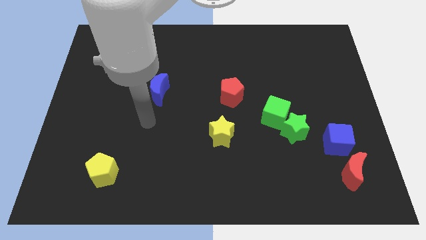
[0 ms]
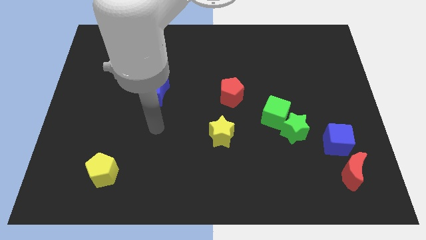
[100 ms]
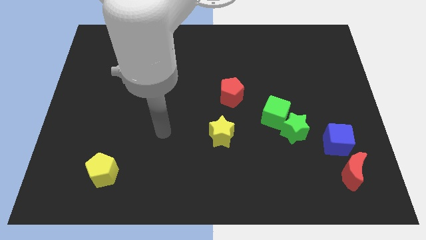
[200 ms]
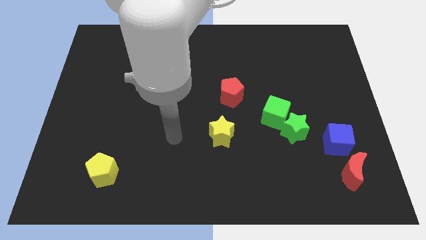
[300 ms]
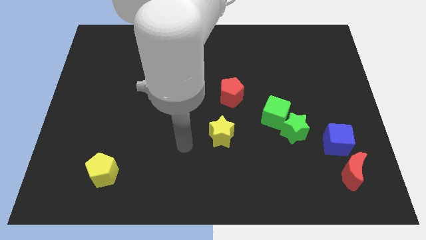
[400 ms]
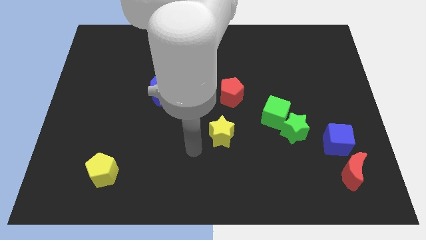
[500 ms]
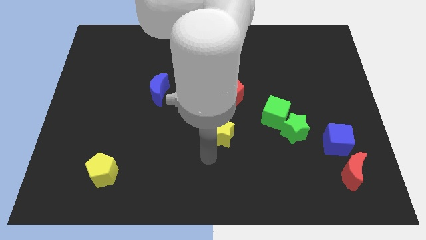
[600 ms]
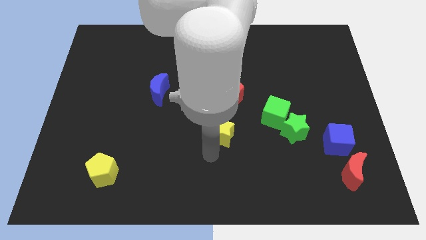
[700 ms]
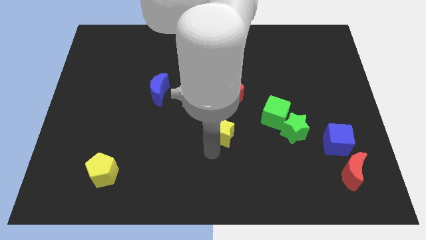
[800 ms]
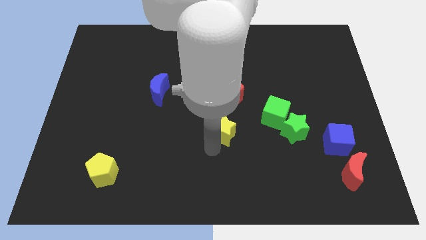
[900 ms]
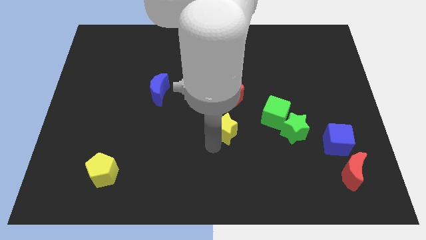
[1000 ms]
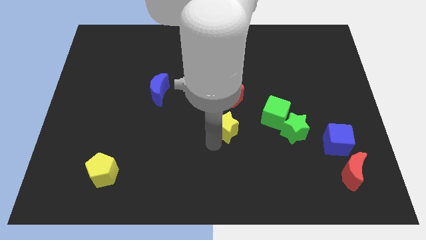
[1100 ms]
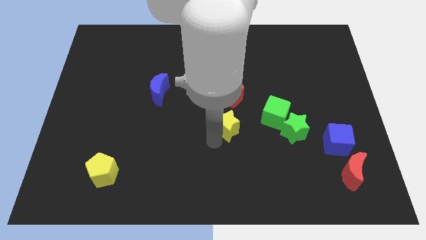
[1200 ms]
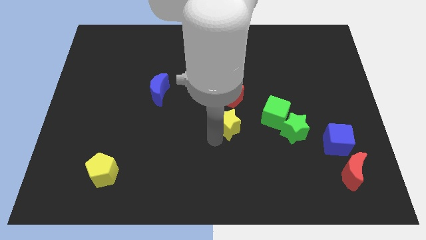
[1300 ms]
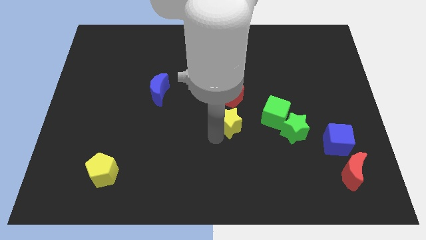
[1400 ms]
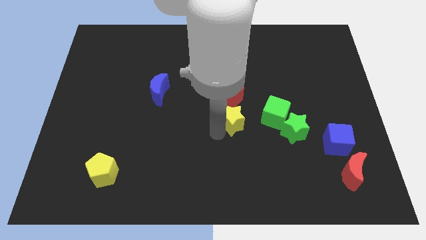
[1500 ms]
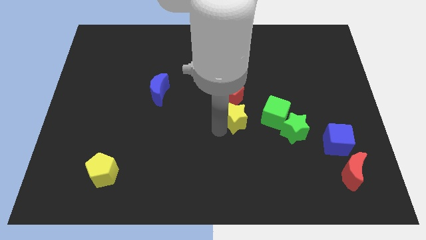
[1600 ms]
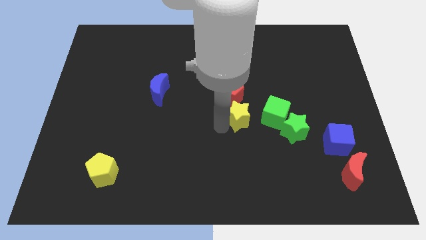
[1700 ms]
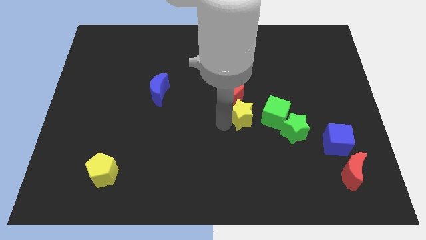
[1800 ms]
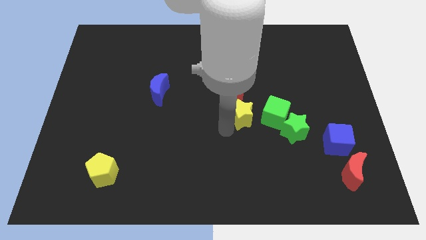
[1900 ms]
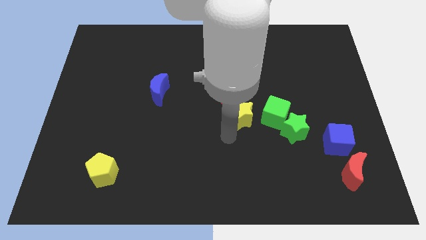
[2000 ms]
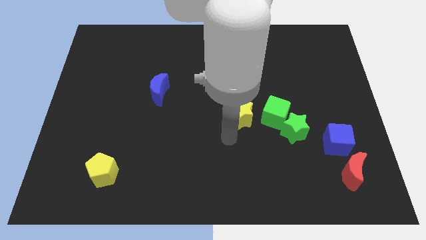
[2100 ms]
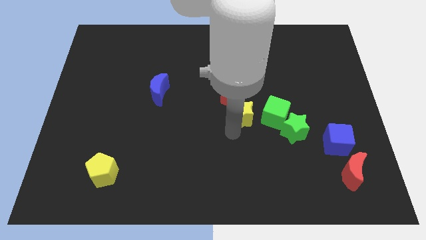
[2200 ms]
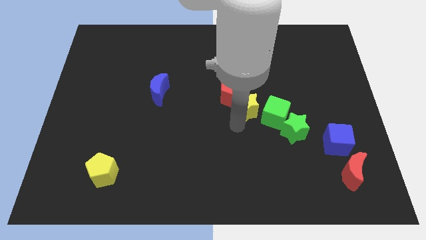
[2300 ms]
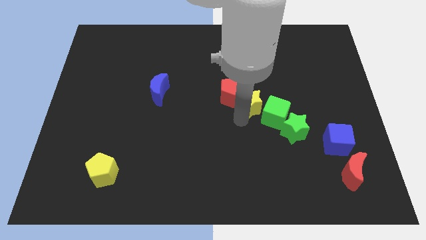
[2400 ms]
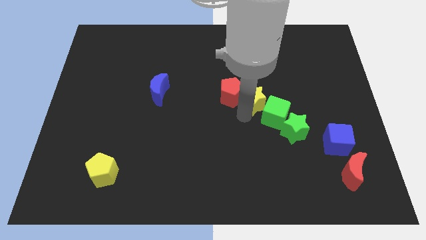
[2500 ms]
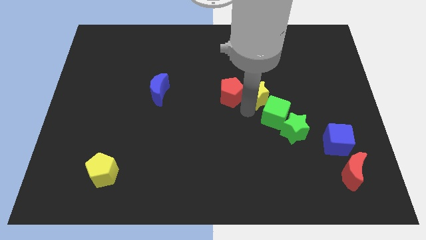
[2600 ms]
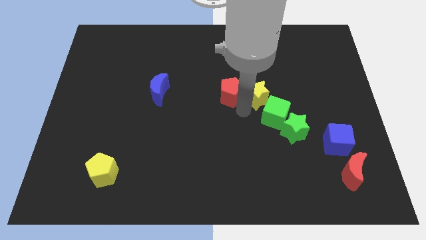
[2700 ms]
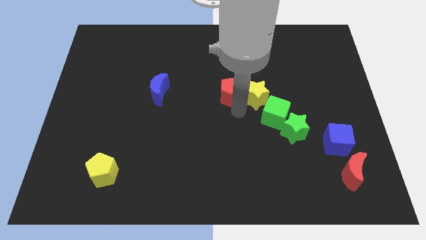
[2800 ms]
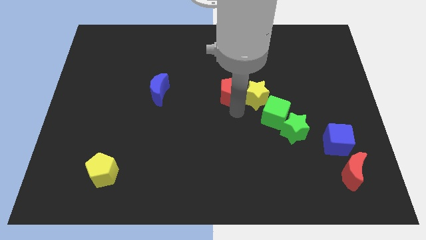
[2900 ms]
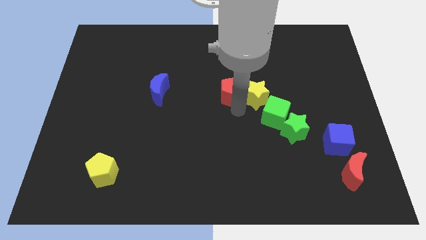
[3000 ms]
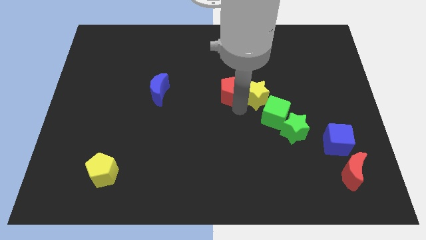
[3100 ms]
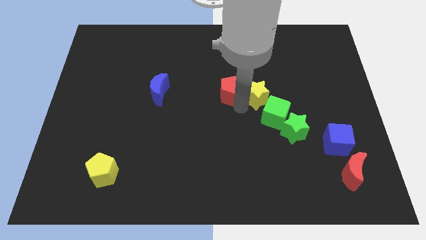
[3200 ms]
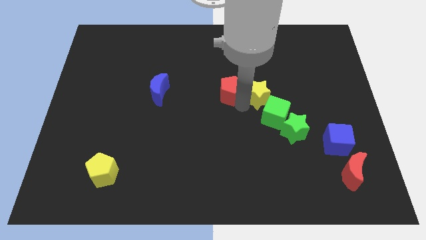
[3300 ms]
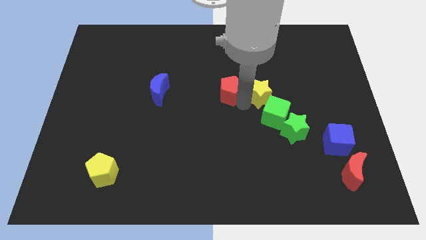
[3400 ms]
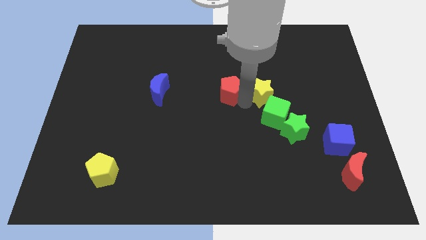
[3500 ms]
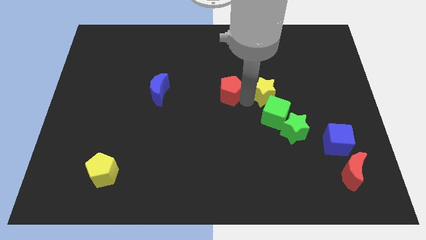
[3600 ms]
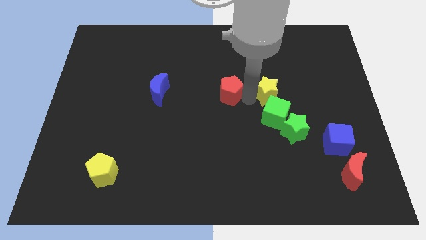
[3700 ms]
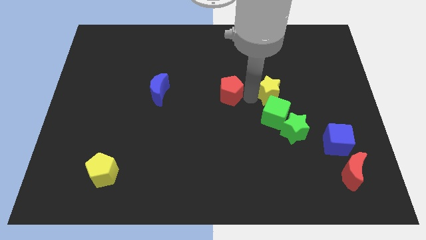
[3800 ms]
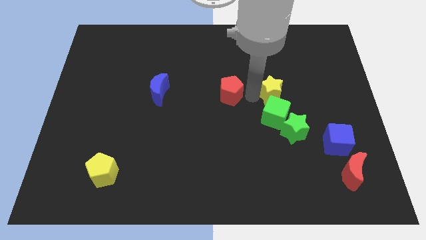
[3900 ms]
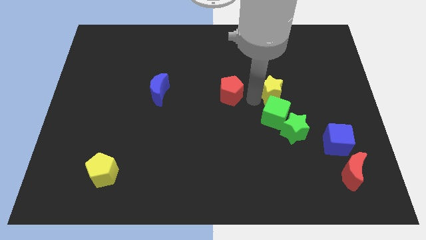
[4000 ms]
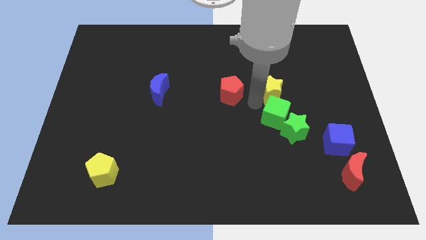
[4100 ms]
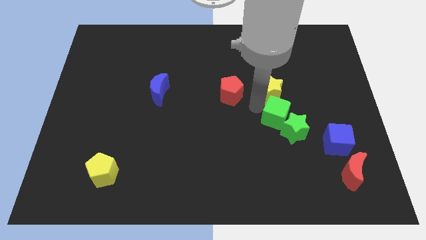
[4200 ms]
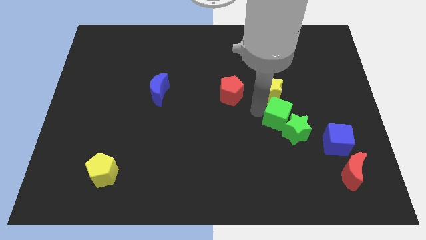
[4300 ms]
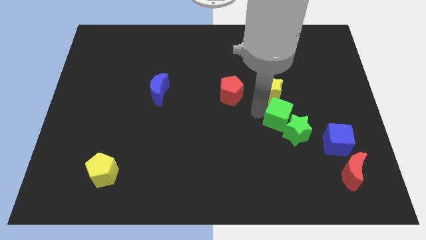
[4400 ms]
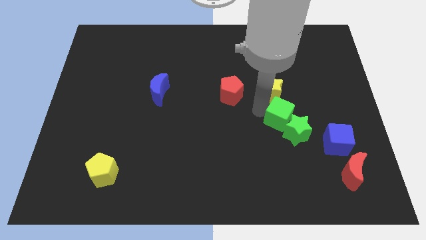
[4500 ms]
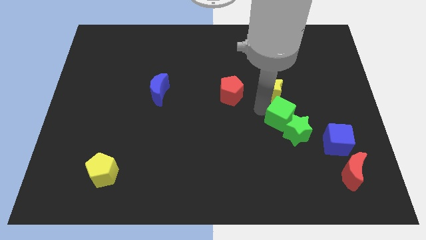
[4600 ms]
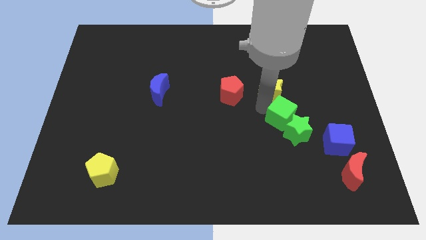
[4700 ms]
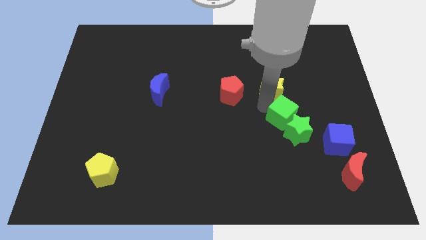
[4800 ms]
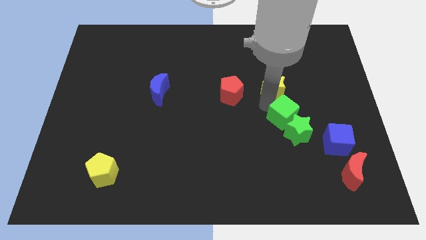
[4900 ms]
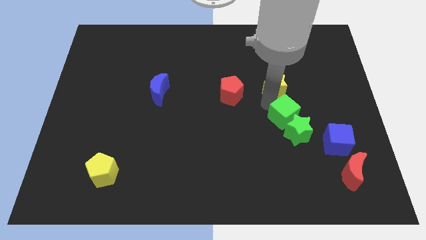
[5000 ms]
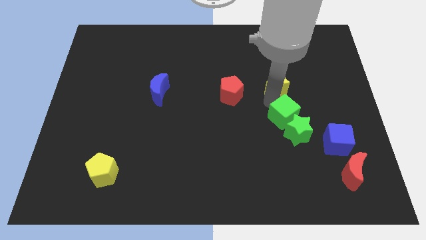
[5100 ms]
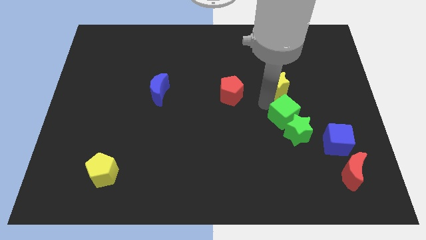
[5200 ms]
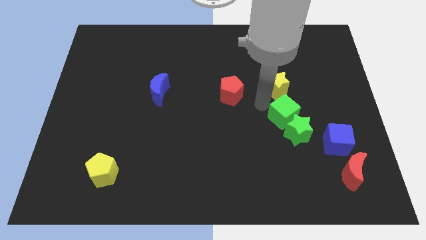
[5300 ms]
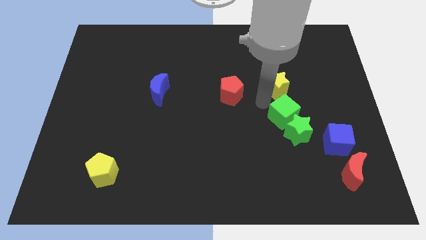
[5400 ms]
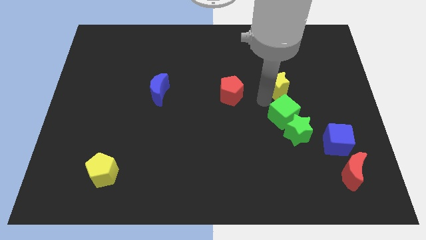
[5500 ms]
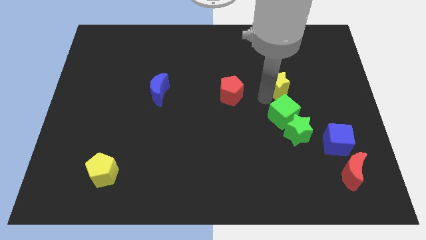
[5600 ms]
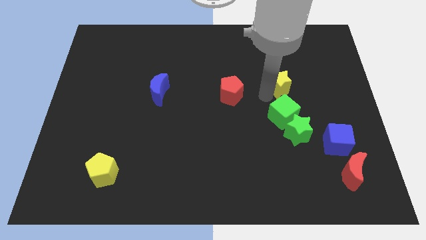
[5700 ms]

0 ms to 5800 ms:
slide the yellow star up and then to the right

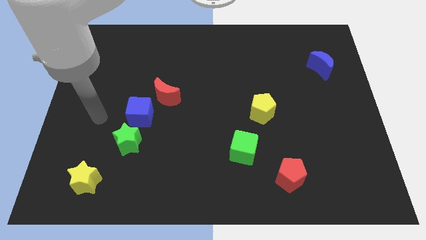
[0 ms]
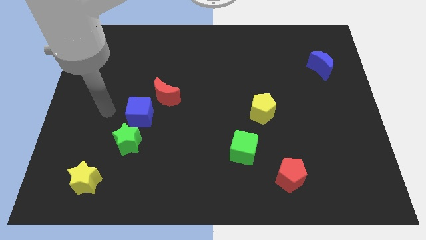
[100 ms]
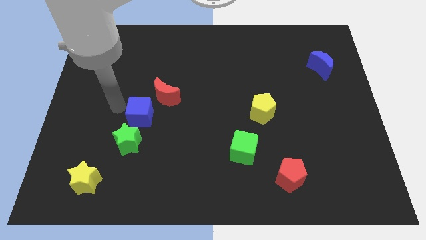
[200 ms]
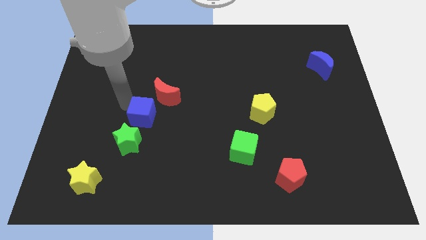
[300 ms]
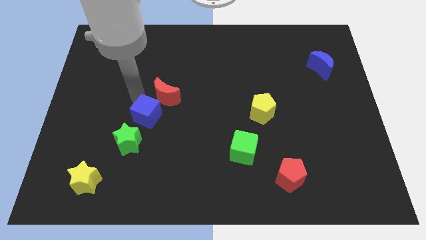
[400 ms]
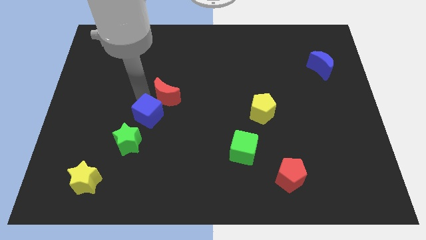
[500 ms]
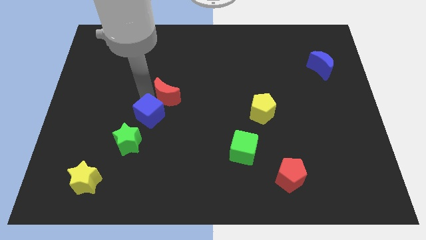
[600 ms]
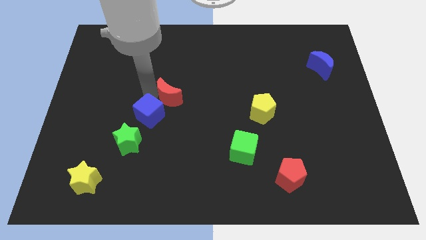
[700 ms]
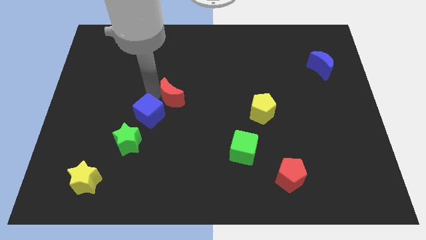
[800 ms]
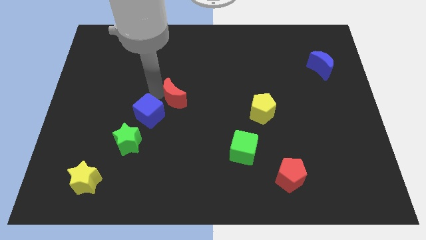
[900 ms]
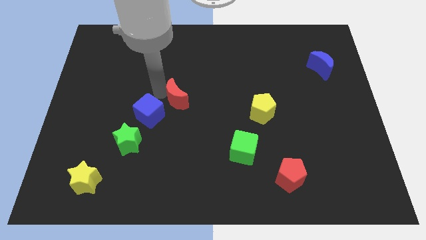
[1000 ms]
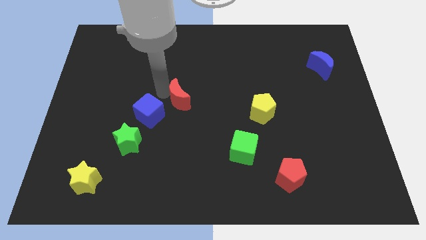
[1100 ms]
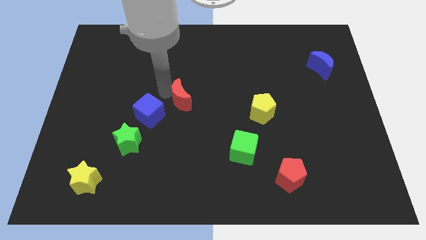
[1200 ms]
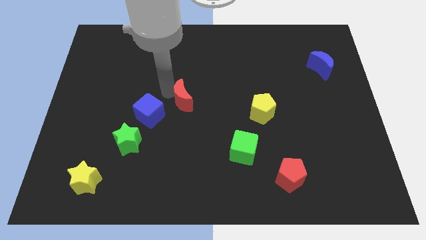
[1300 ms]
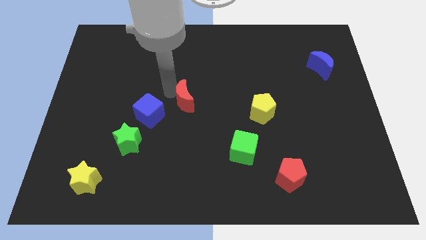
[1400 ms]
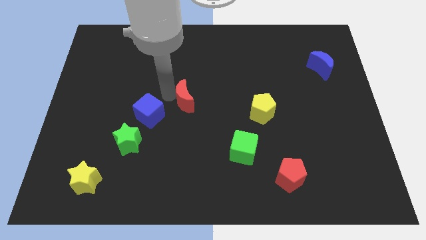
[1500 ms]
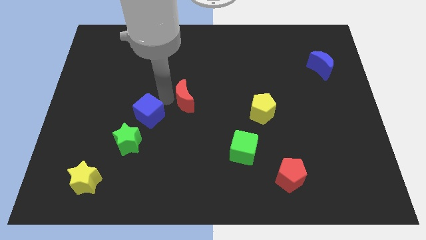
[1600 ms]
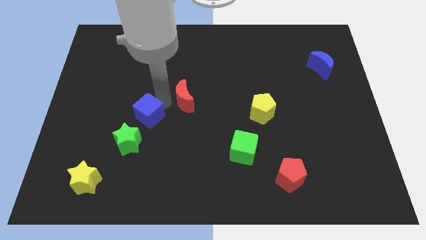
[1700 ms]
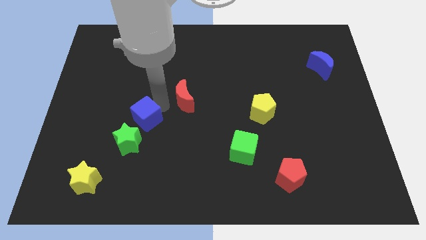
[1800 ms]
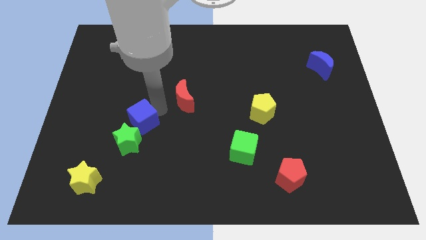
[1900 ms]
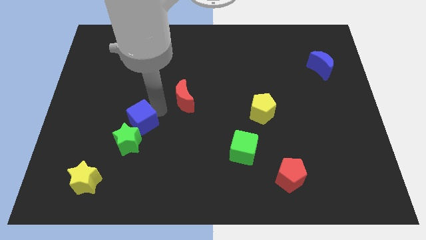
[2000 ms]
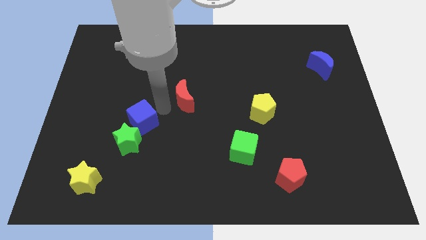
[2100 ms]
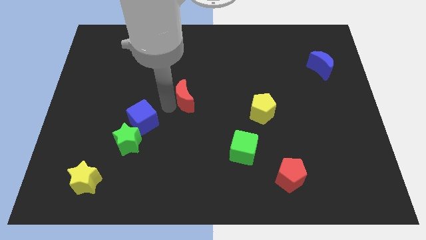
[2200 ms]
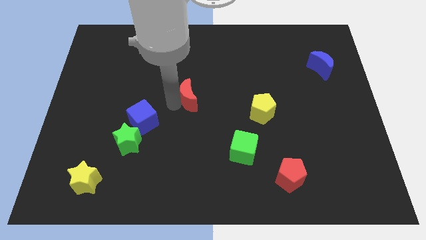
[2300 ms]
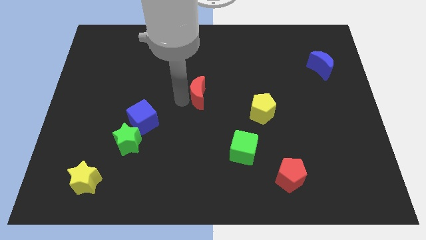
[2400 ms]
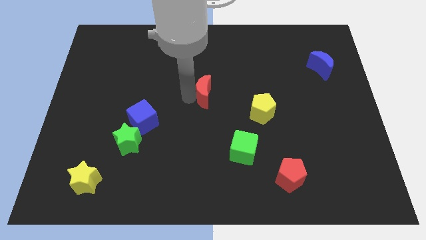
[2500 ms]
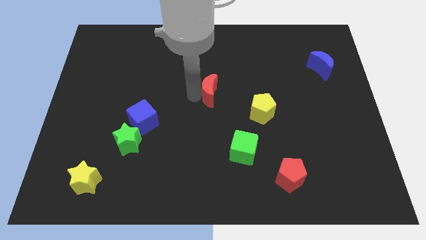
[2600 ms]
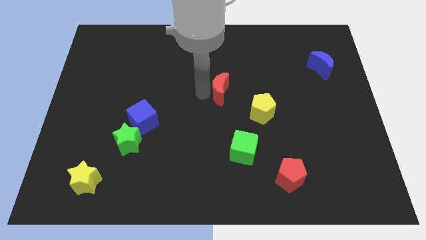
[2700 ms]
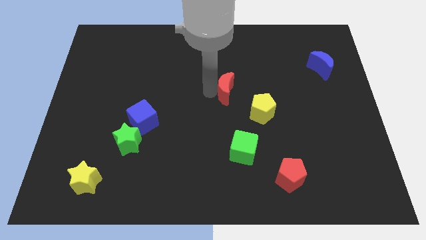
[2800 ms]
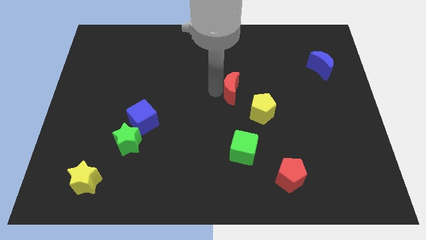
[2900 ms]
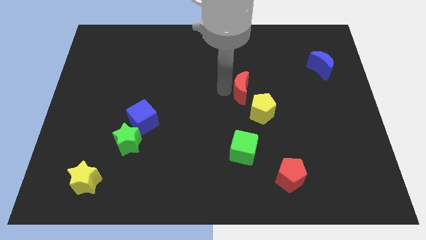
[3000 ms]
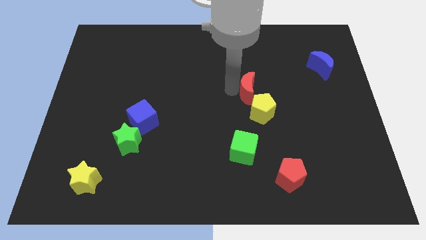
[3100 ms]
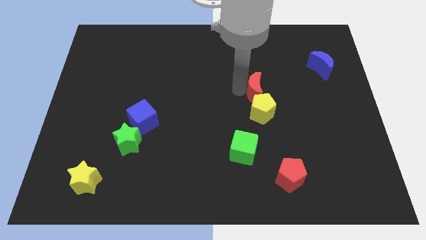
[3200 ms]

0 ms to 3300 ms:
push the red moon right
